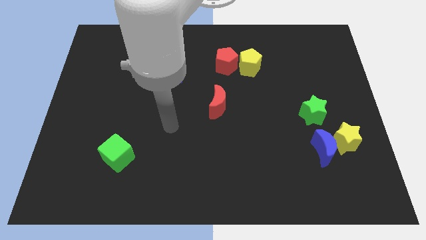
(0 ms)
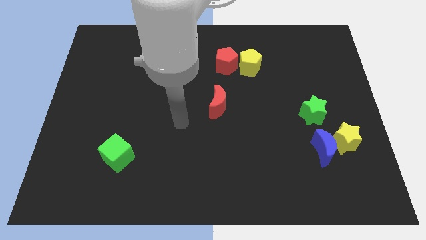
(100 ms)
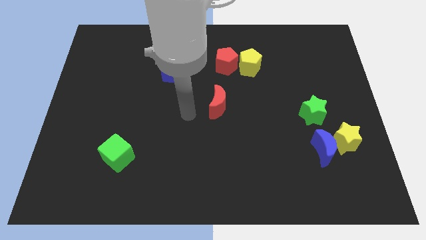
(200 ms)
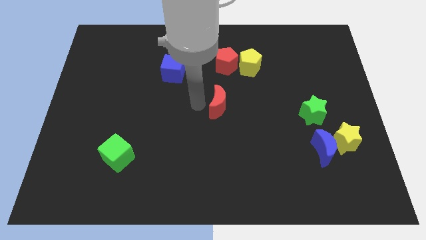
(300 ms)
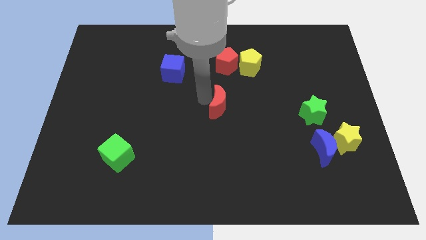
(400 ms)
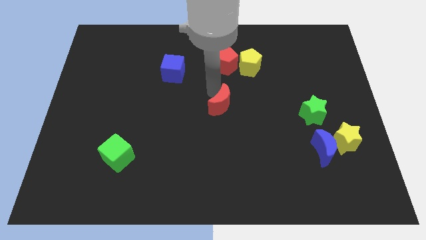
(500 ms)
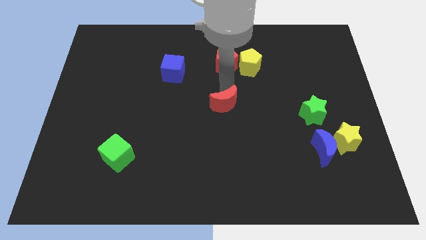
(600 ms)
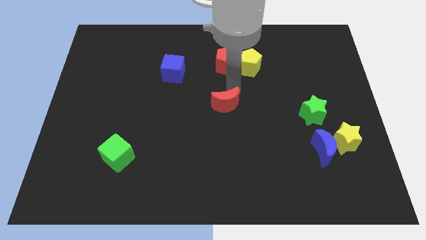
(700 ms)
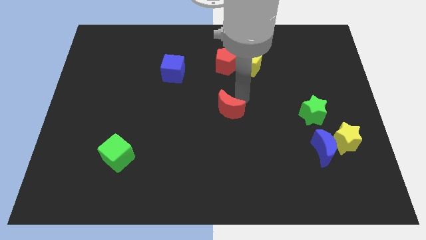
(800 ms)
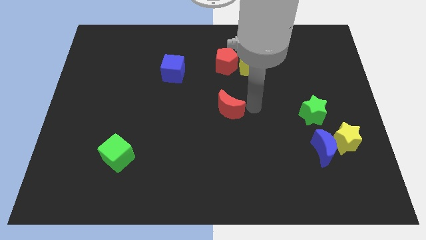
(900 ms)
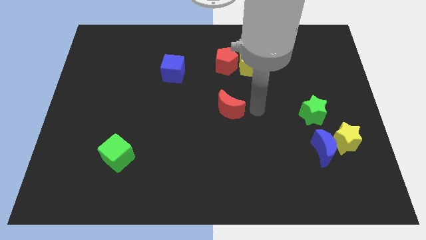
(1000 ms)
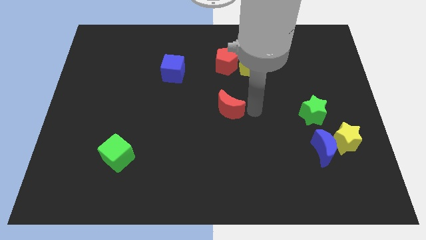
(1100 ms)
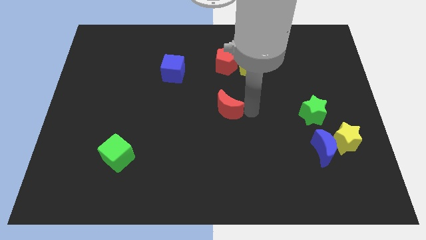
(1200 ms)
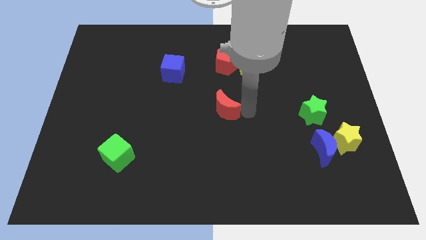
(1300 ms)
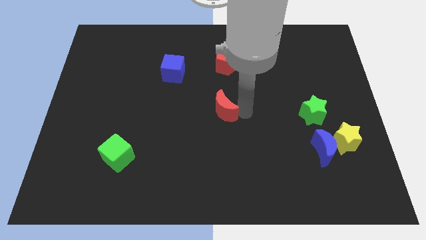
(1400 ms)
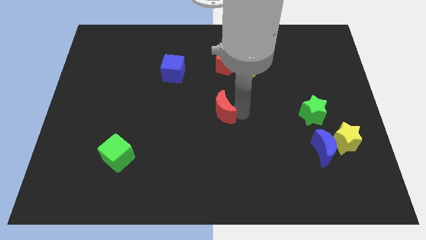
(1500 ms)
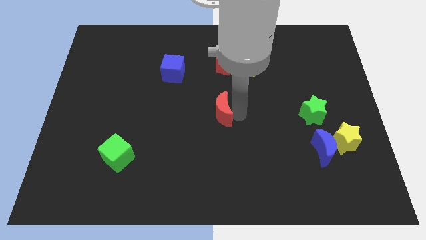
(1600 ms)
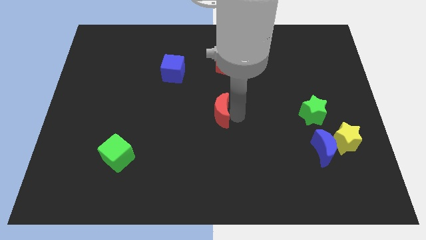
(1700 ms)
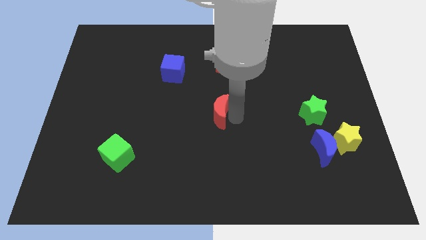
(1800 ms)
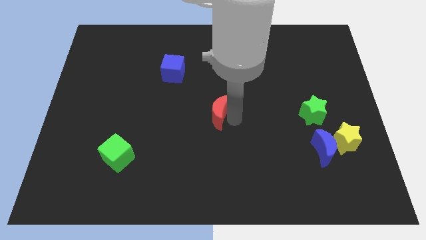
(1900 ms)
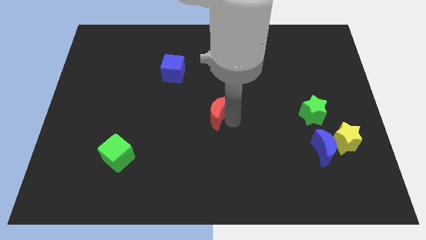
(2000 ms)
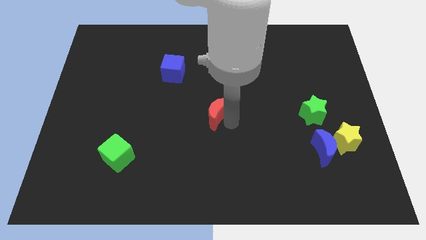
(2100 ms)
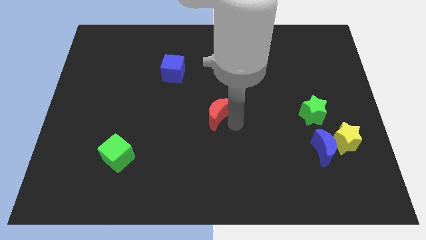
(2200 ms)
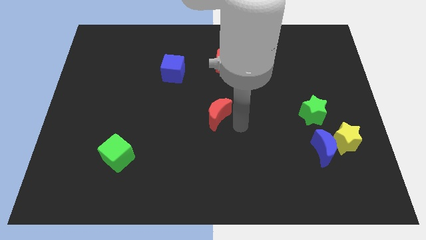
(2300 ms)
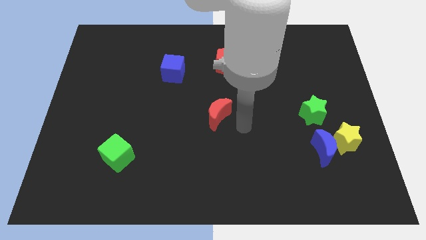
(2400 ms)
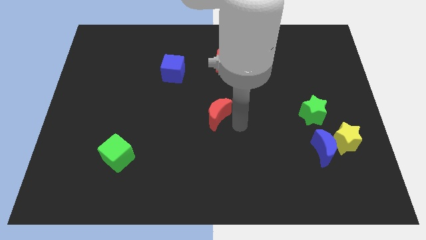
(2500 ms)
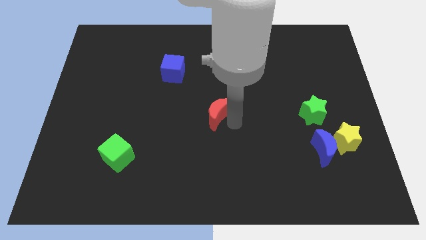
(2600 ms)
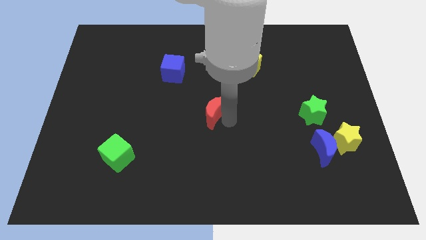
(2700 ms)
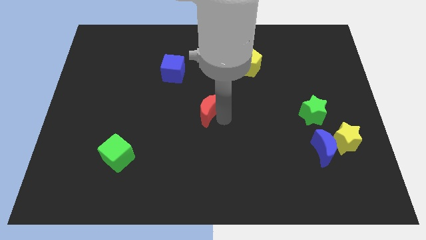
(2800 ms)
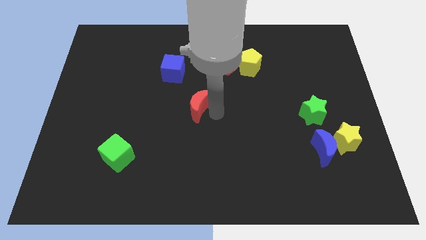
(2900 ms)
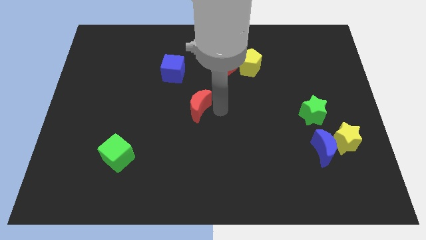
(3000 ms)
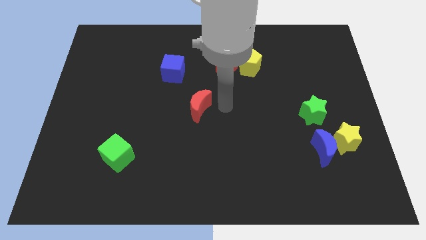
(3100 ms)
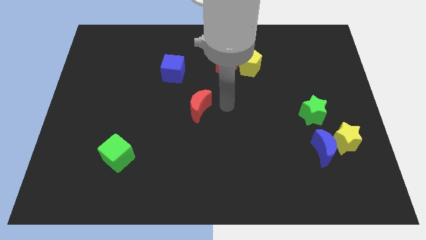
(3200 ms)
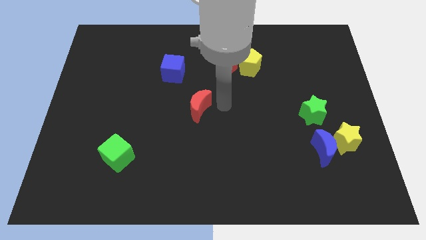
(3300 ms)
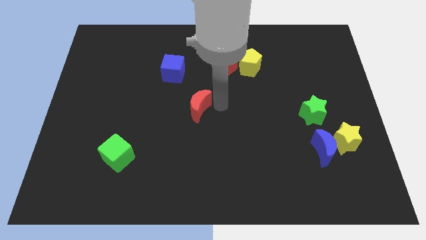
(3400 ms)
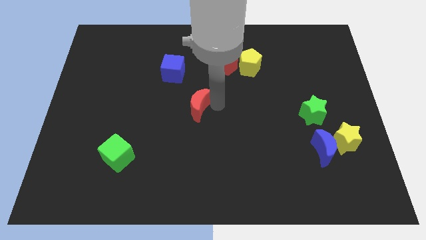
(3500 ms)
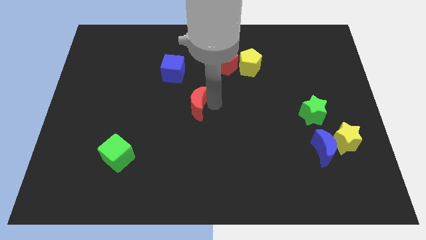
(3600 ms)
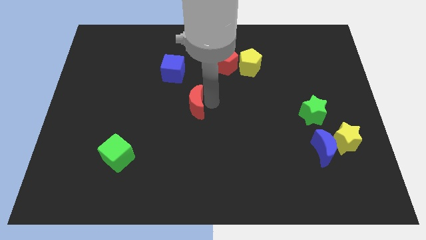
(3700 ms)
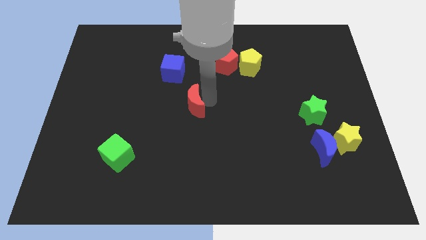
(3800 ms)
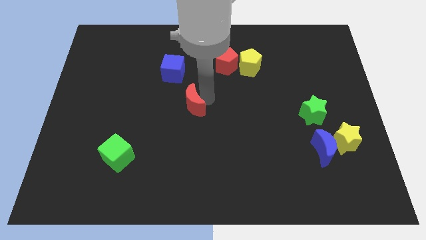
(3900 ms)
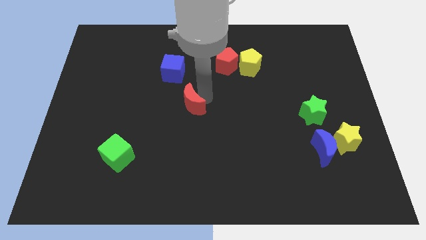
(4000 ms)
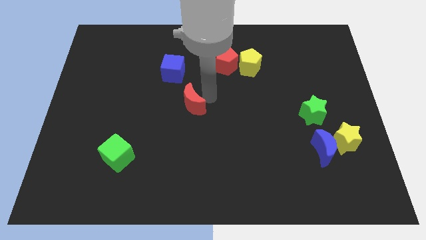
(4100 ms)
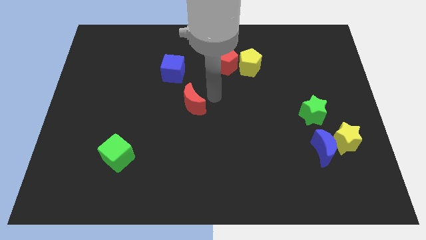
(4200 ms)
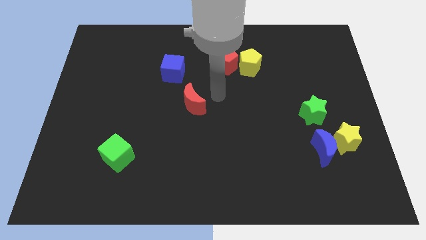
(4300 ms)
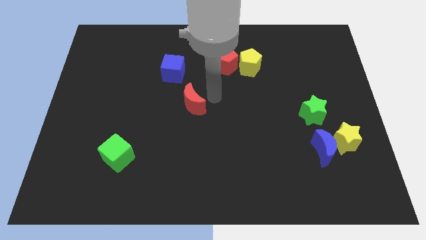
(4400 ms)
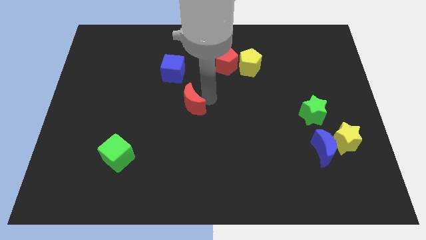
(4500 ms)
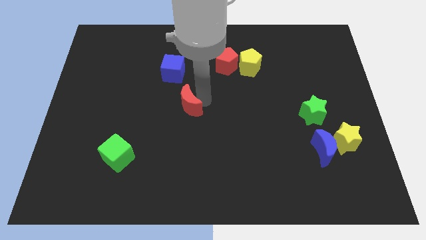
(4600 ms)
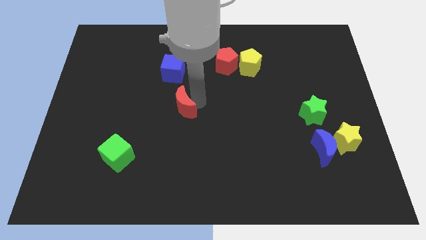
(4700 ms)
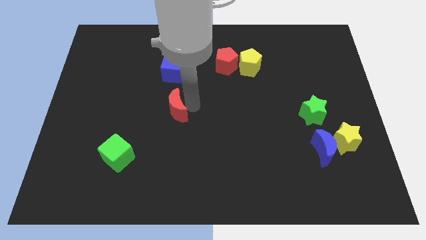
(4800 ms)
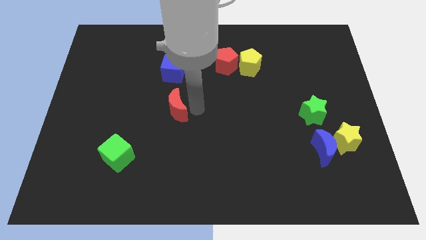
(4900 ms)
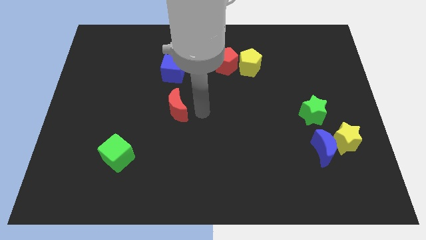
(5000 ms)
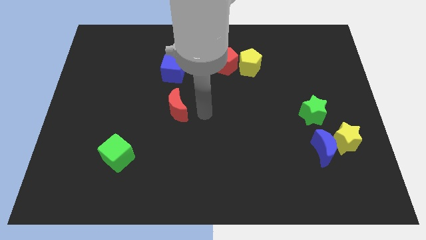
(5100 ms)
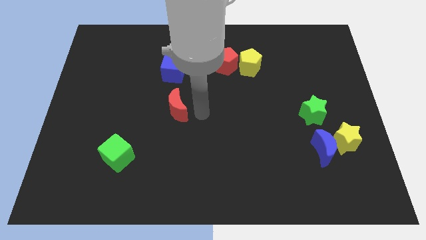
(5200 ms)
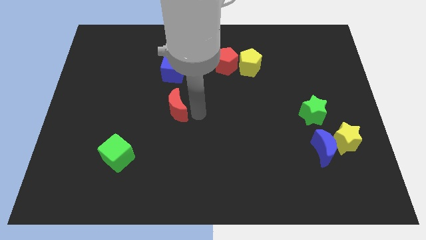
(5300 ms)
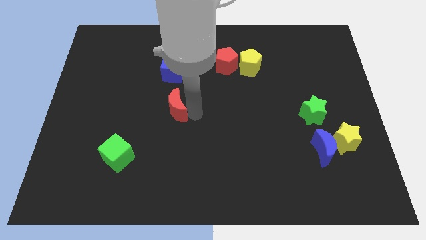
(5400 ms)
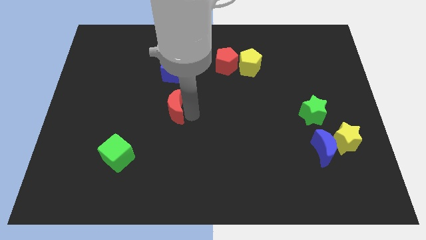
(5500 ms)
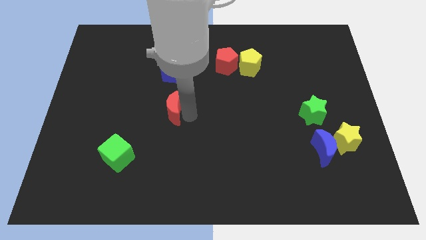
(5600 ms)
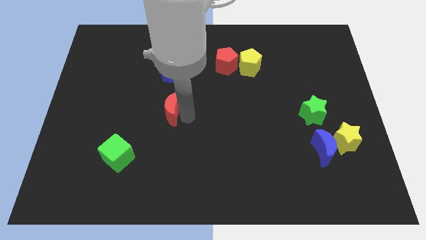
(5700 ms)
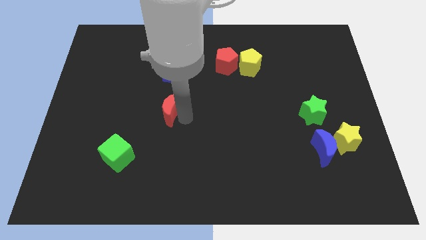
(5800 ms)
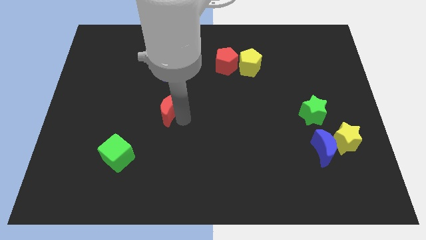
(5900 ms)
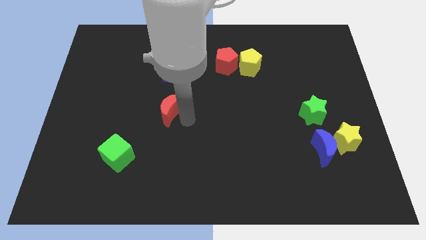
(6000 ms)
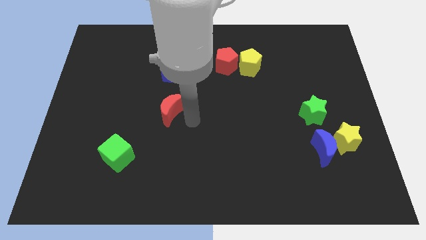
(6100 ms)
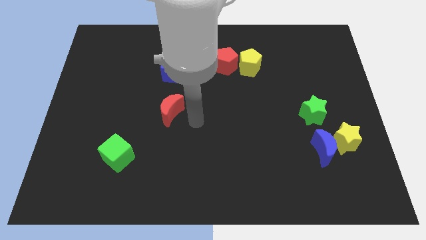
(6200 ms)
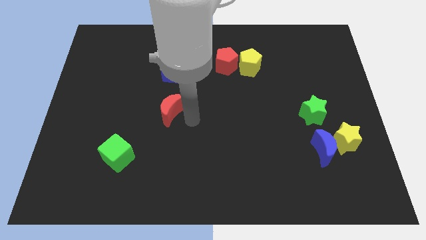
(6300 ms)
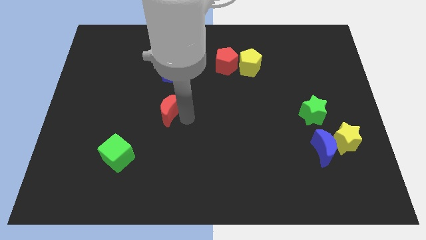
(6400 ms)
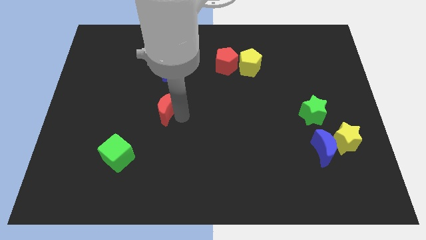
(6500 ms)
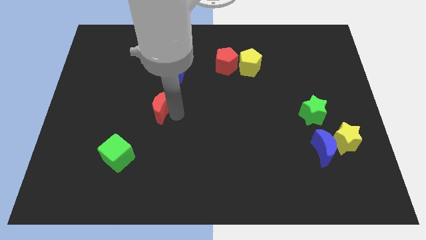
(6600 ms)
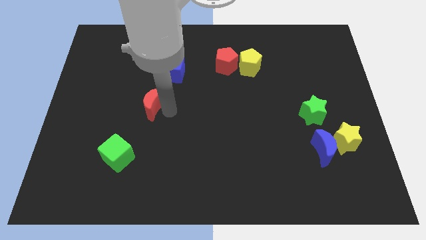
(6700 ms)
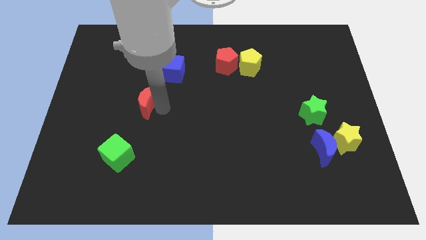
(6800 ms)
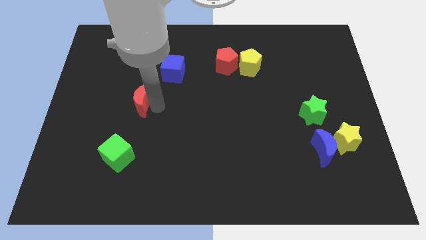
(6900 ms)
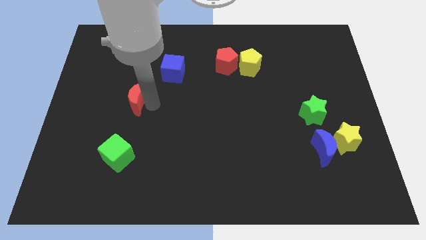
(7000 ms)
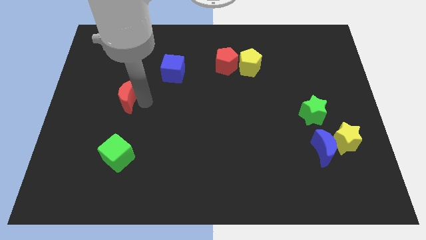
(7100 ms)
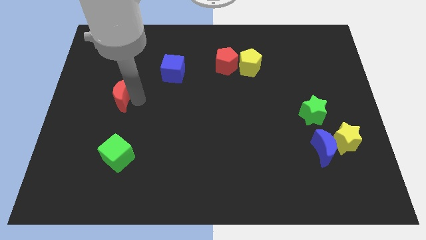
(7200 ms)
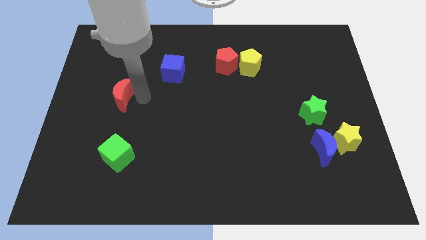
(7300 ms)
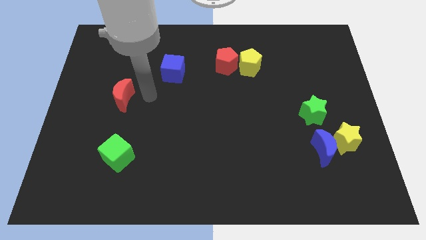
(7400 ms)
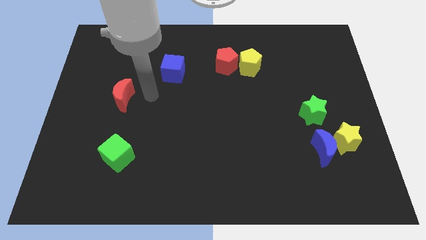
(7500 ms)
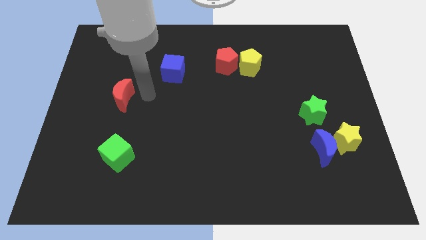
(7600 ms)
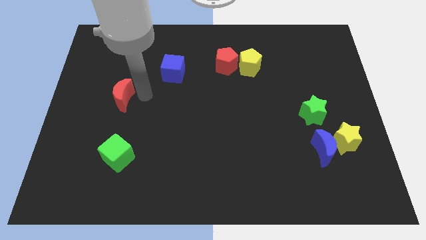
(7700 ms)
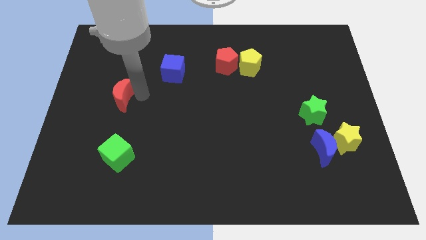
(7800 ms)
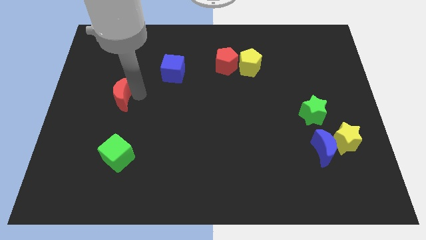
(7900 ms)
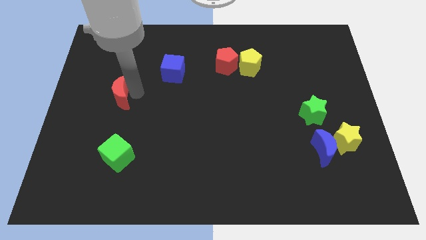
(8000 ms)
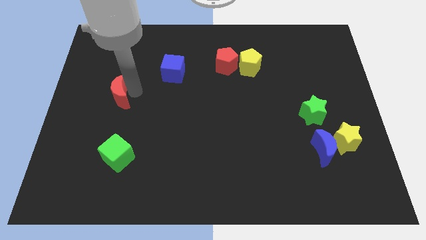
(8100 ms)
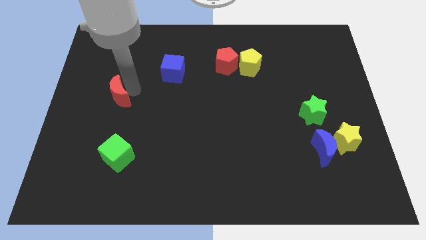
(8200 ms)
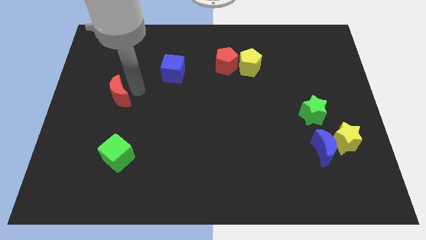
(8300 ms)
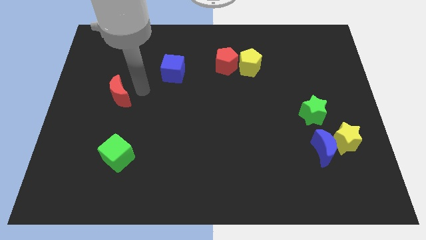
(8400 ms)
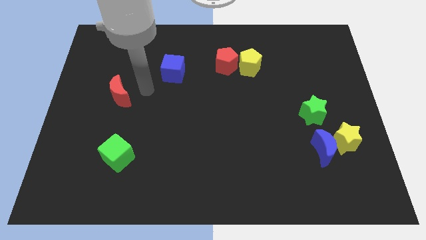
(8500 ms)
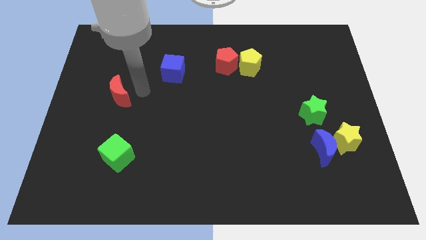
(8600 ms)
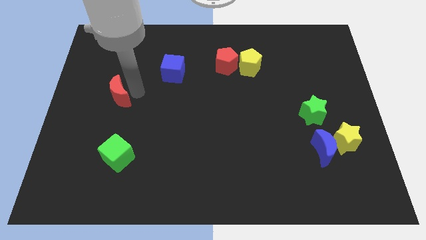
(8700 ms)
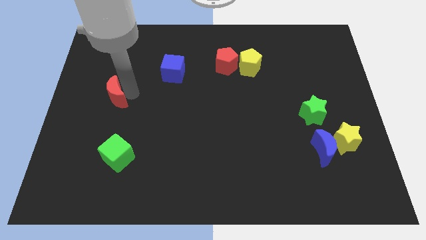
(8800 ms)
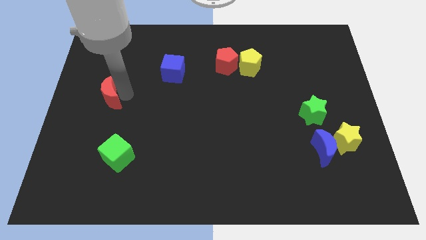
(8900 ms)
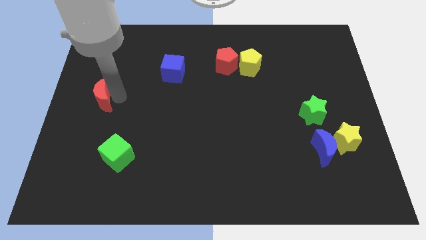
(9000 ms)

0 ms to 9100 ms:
move the red moon to the left side
